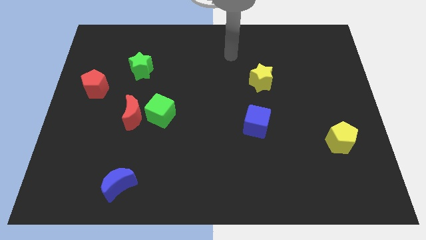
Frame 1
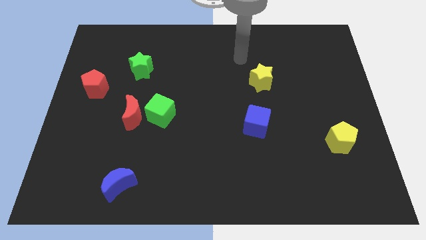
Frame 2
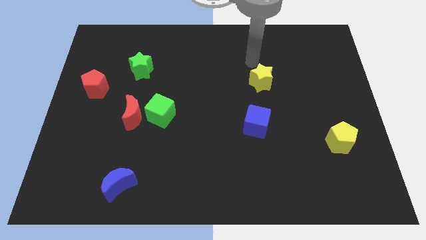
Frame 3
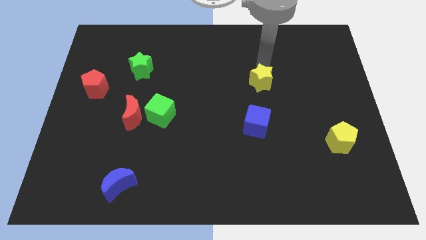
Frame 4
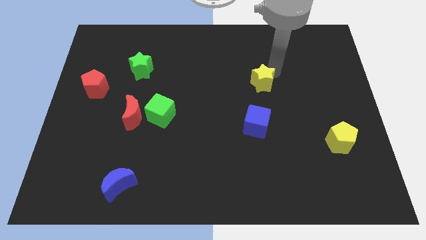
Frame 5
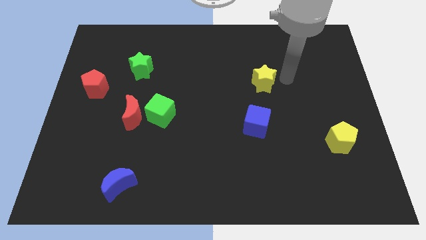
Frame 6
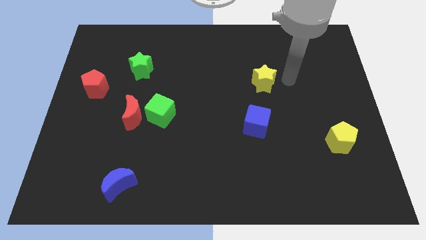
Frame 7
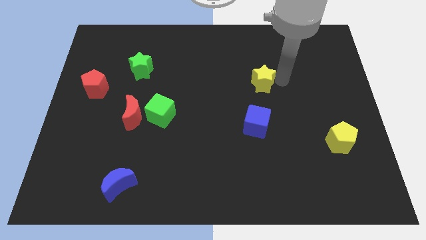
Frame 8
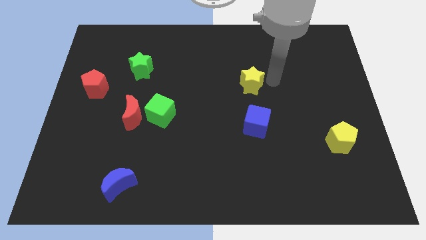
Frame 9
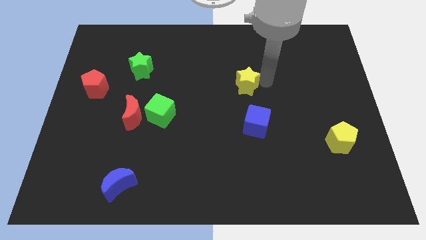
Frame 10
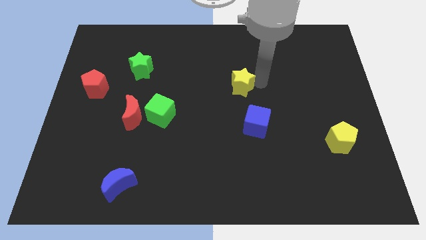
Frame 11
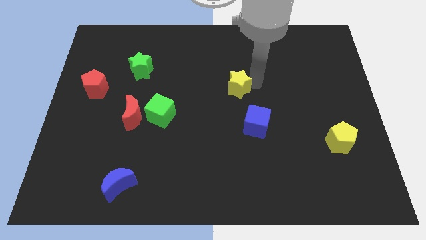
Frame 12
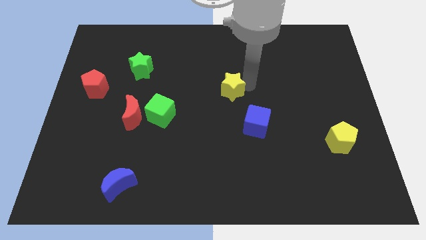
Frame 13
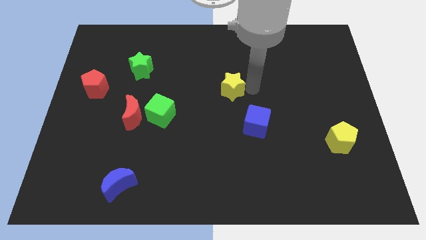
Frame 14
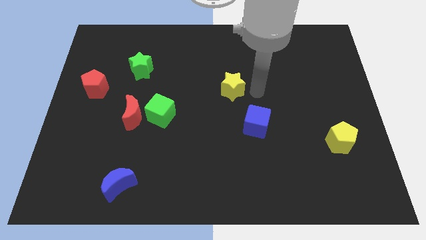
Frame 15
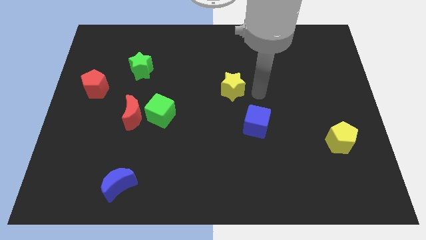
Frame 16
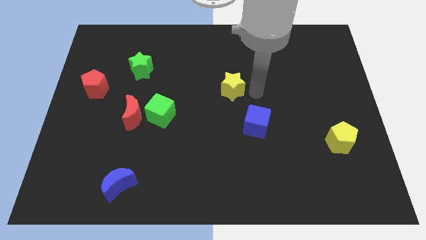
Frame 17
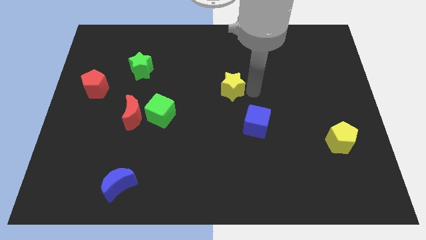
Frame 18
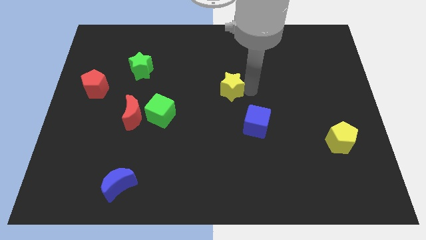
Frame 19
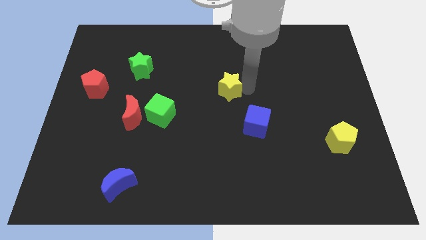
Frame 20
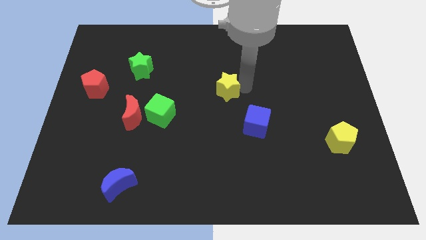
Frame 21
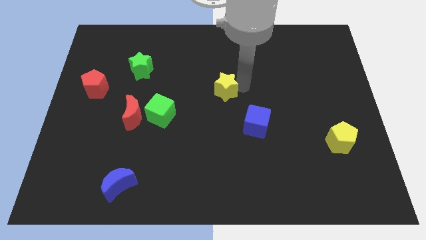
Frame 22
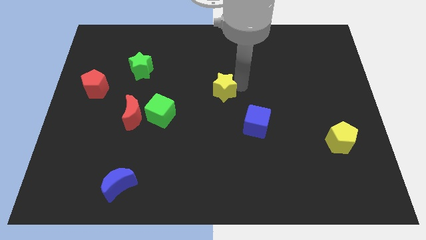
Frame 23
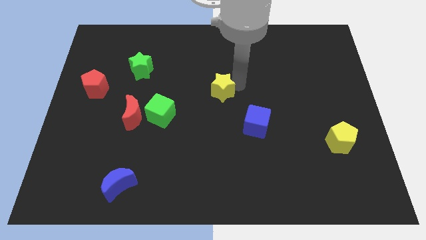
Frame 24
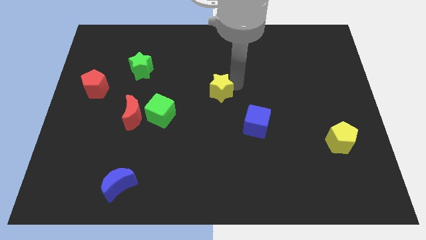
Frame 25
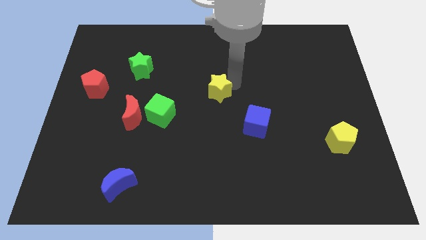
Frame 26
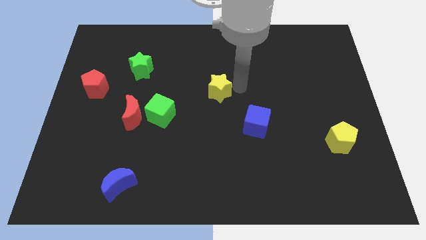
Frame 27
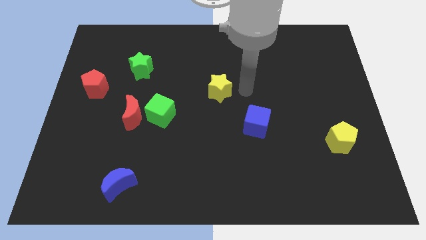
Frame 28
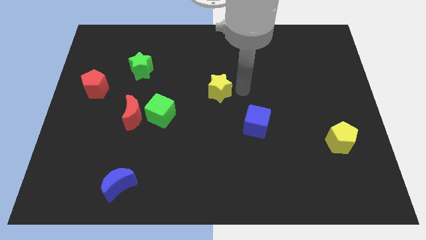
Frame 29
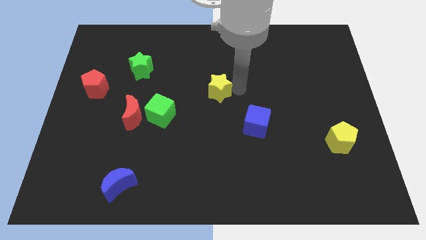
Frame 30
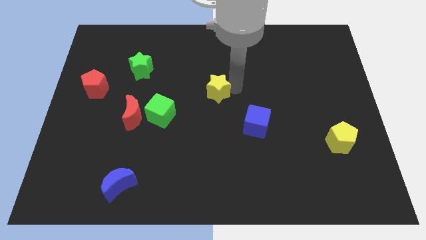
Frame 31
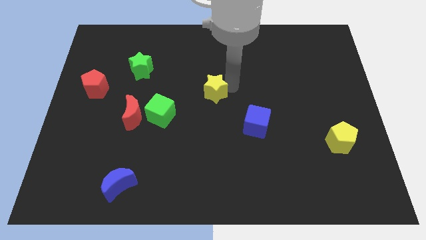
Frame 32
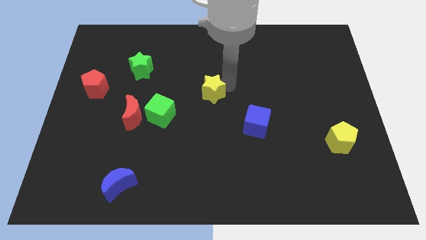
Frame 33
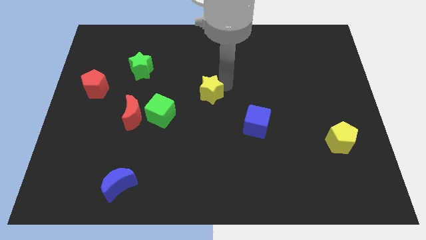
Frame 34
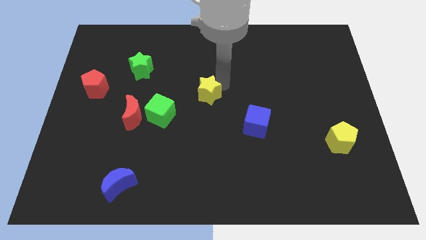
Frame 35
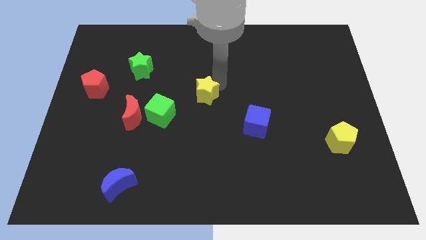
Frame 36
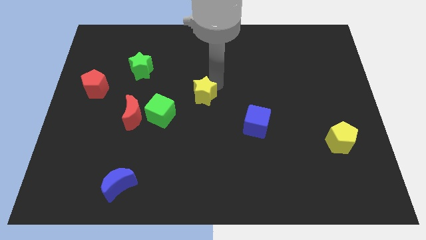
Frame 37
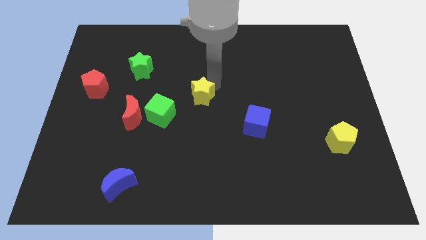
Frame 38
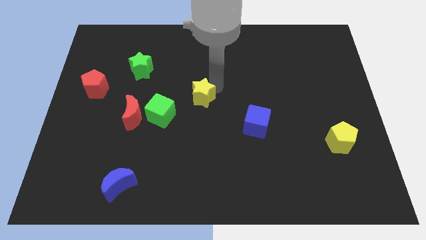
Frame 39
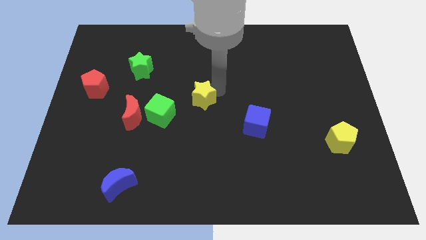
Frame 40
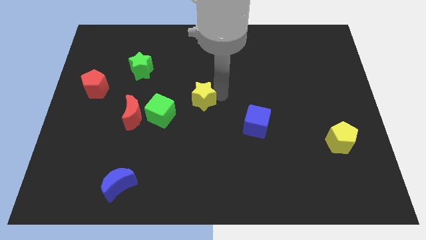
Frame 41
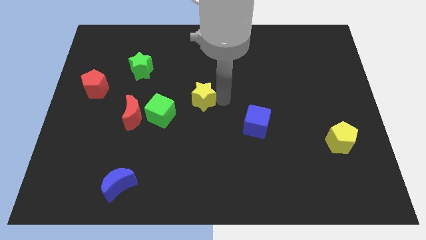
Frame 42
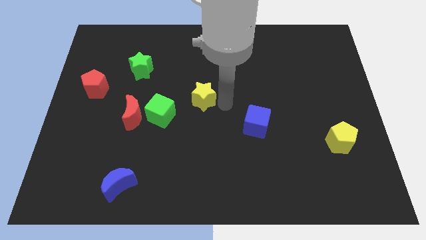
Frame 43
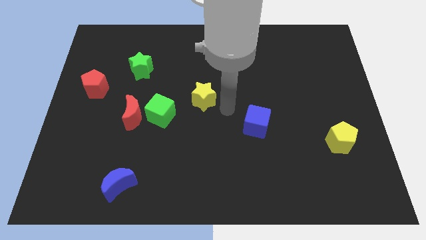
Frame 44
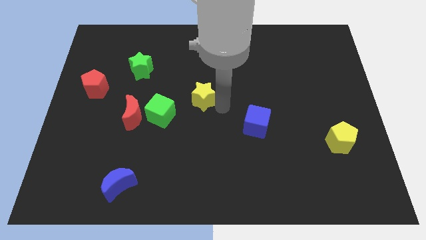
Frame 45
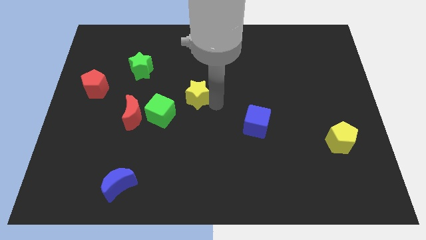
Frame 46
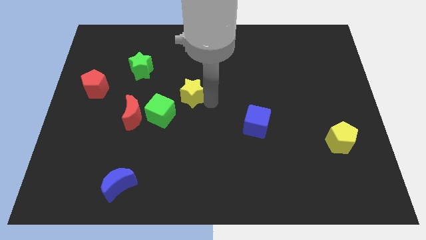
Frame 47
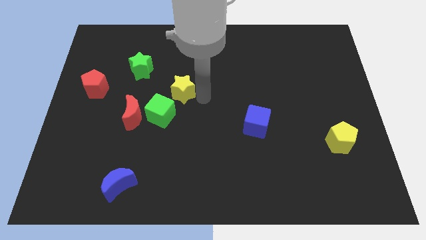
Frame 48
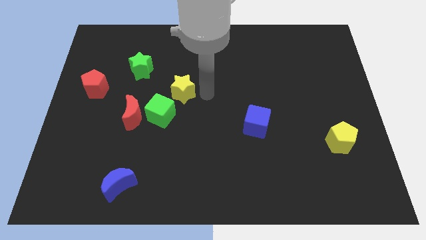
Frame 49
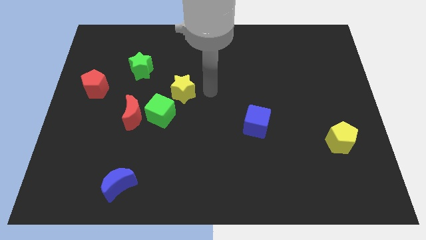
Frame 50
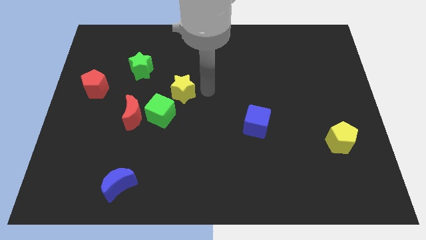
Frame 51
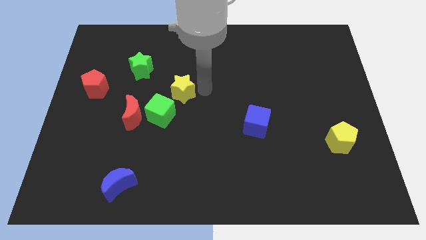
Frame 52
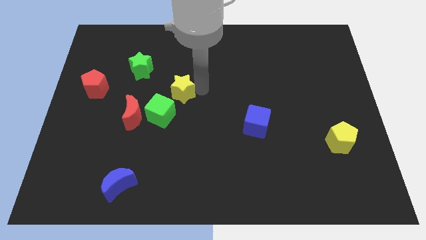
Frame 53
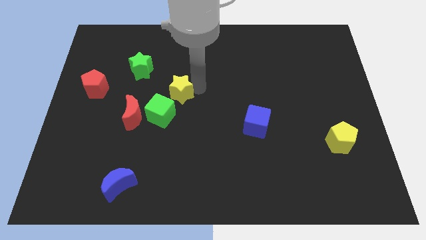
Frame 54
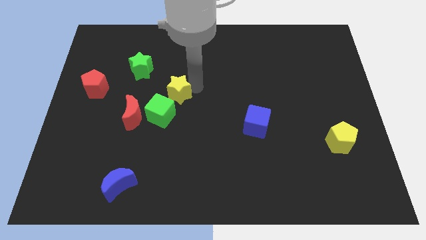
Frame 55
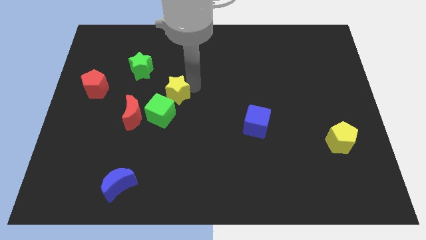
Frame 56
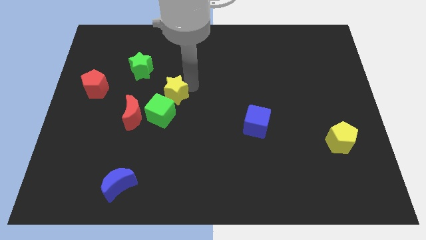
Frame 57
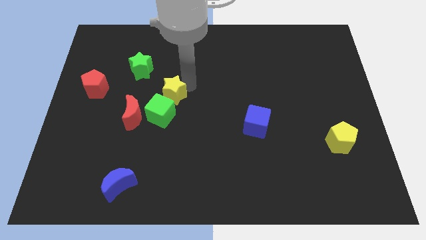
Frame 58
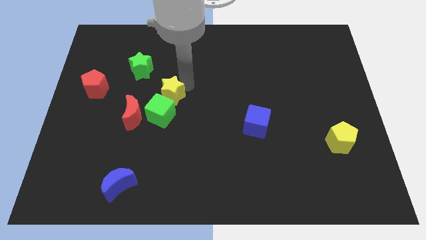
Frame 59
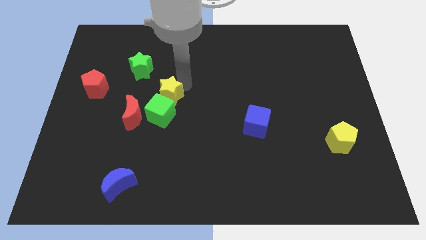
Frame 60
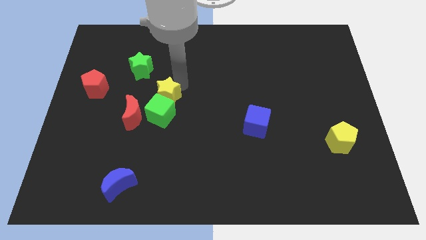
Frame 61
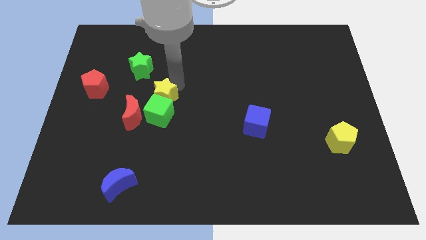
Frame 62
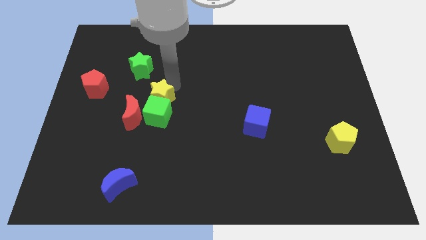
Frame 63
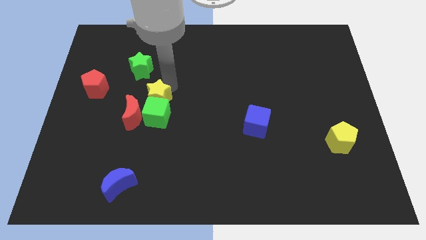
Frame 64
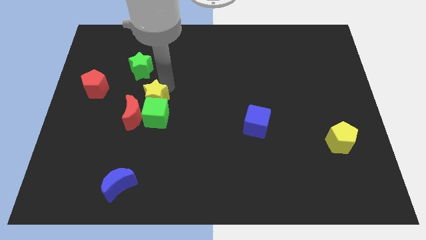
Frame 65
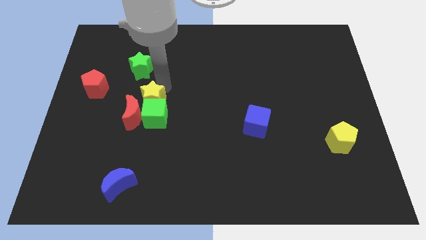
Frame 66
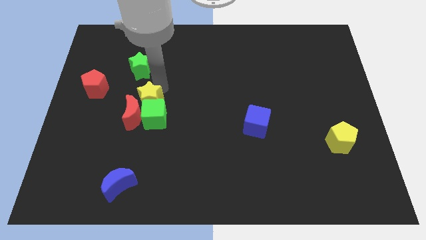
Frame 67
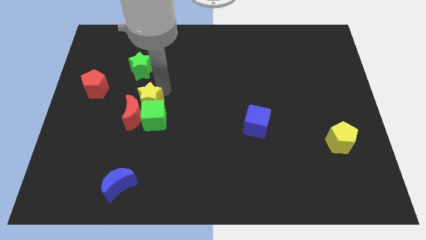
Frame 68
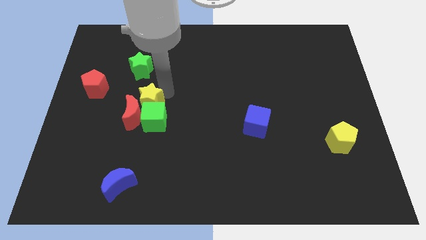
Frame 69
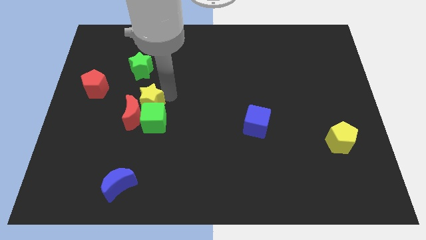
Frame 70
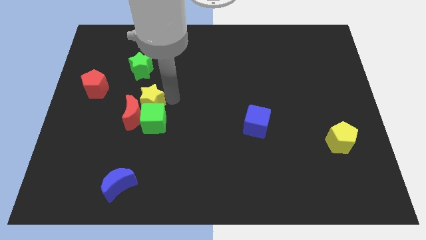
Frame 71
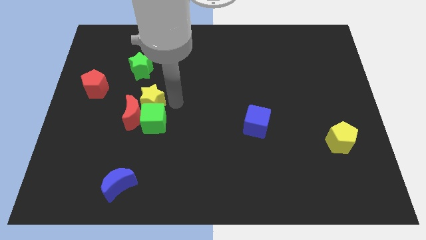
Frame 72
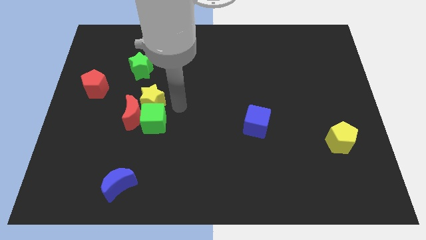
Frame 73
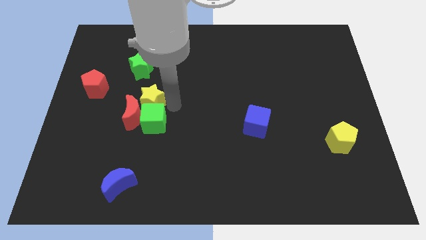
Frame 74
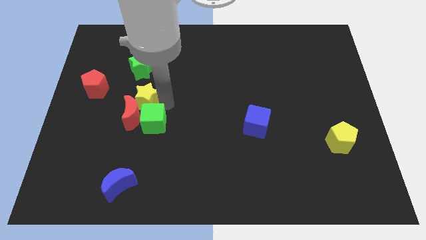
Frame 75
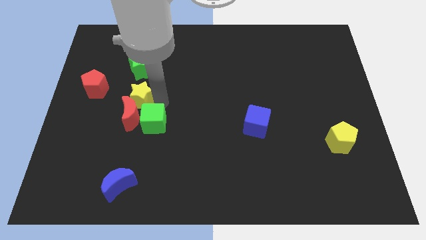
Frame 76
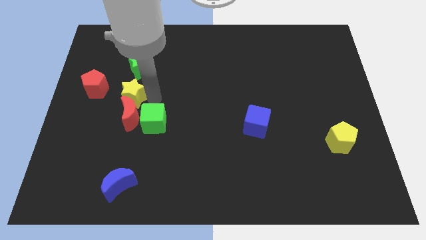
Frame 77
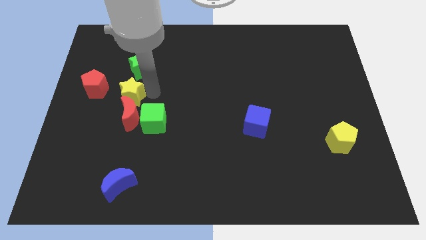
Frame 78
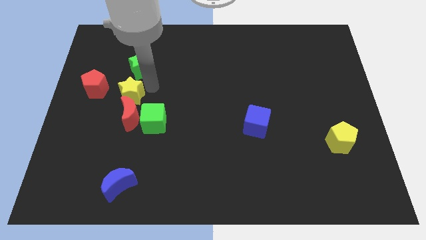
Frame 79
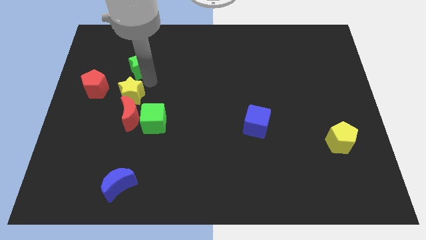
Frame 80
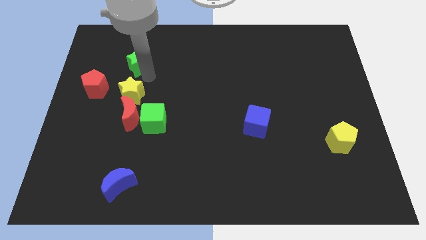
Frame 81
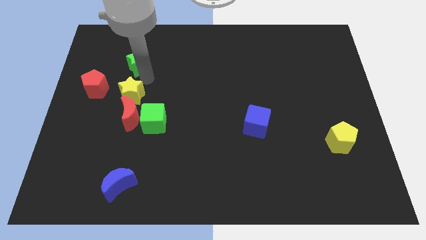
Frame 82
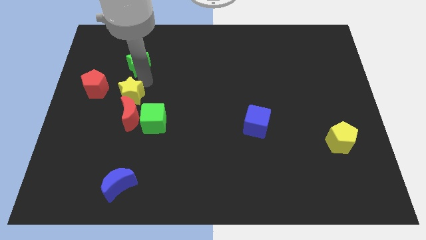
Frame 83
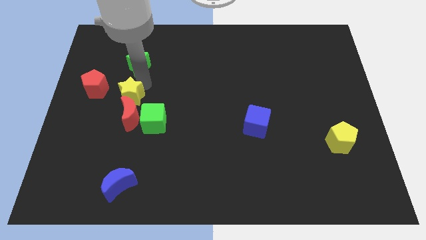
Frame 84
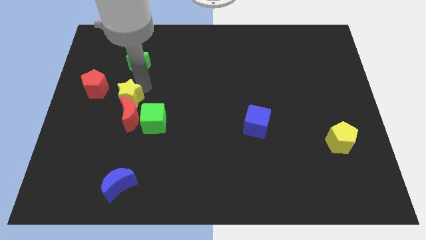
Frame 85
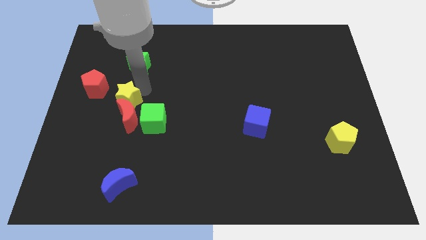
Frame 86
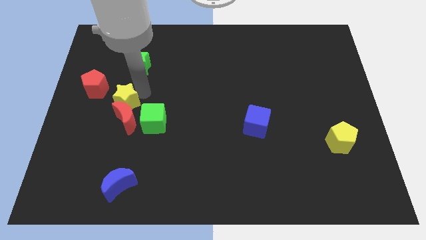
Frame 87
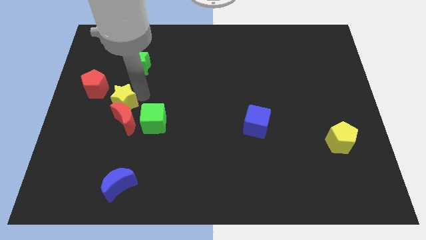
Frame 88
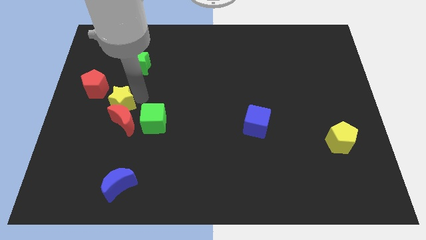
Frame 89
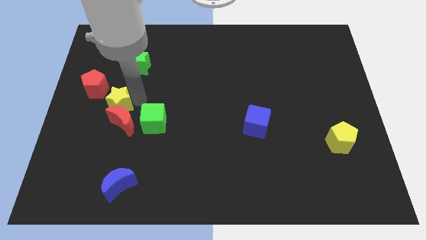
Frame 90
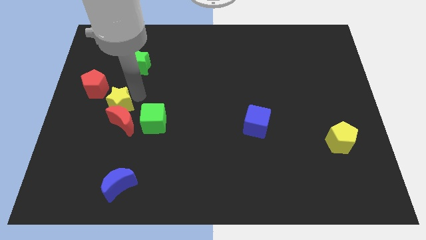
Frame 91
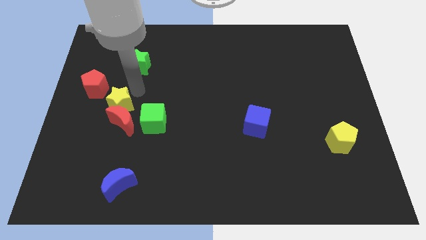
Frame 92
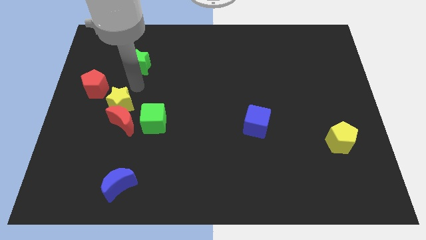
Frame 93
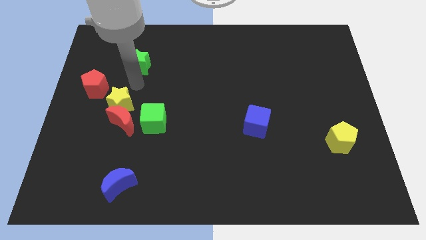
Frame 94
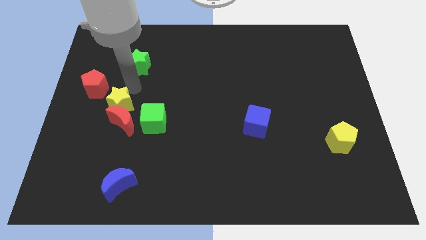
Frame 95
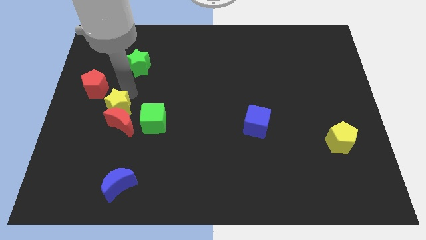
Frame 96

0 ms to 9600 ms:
slide the yellow star just left of the green cube
